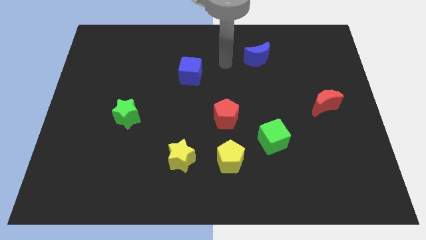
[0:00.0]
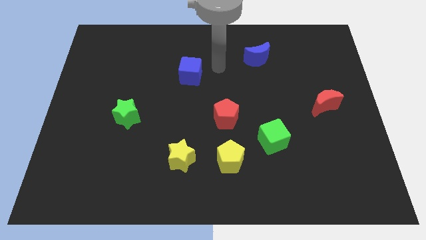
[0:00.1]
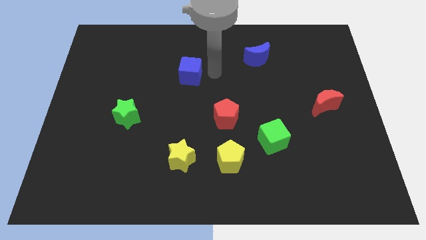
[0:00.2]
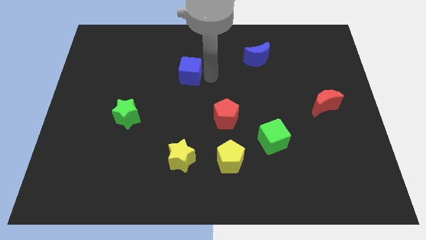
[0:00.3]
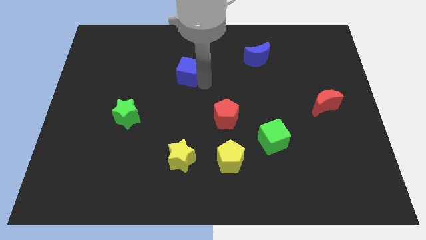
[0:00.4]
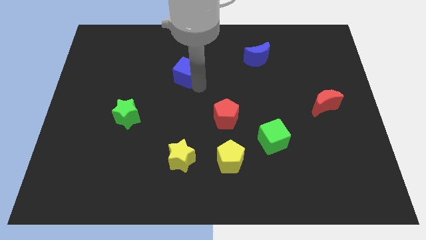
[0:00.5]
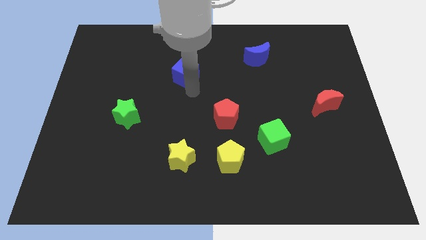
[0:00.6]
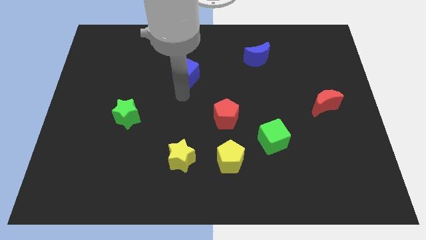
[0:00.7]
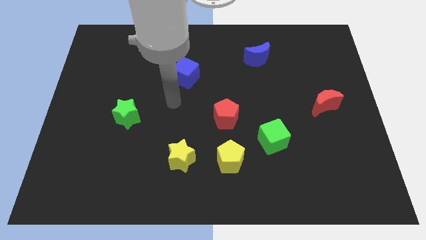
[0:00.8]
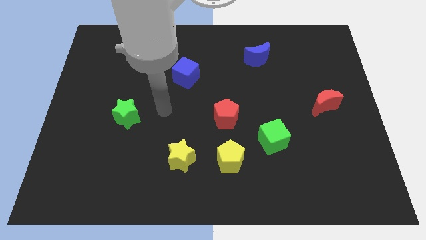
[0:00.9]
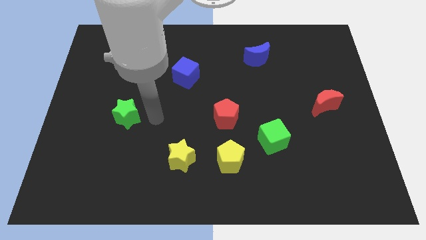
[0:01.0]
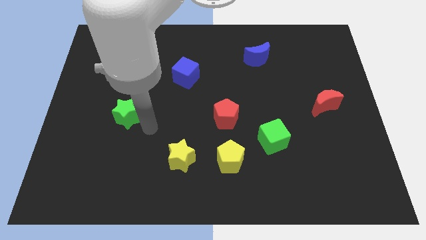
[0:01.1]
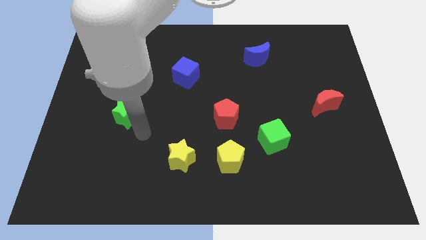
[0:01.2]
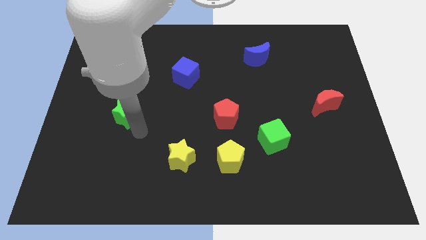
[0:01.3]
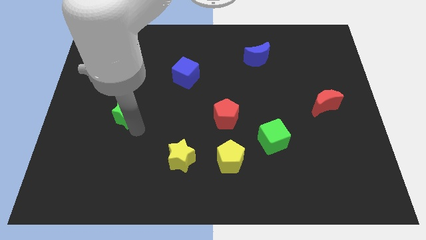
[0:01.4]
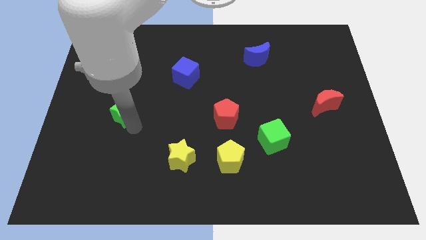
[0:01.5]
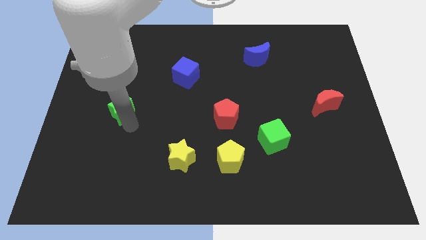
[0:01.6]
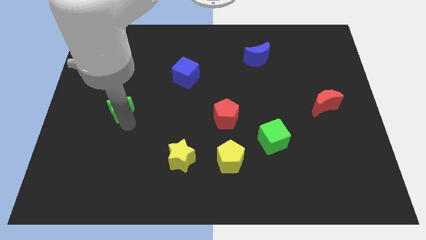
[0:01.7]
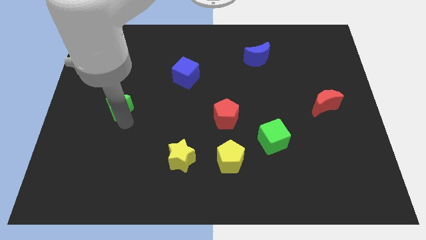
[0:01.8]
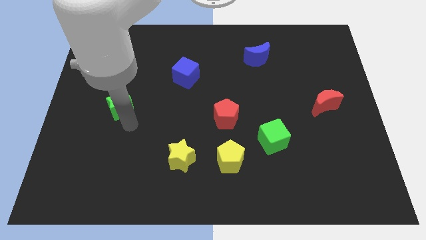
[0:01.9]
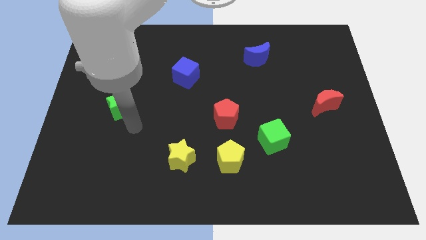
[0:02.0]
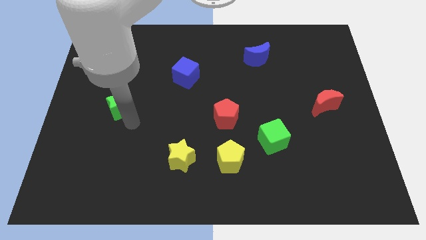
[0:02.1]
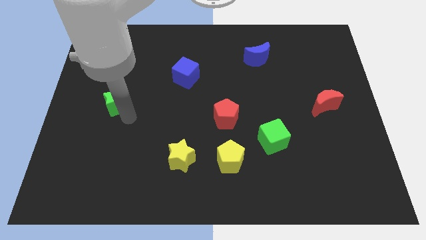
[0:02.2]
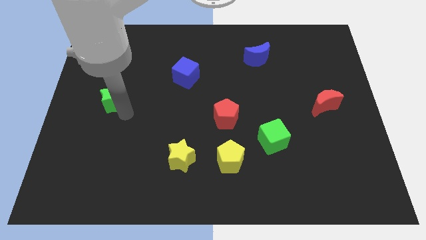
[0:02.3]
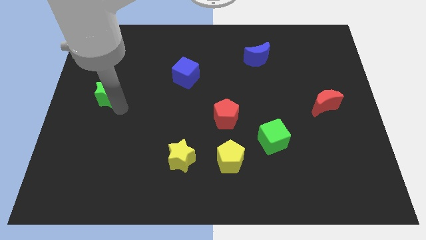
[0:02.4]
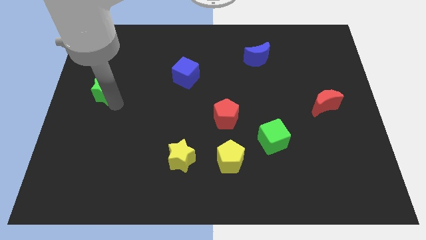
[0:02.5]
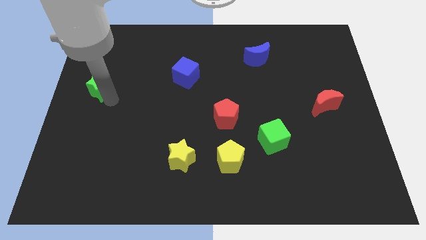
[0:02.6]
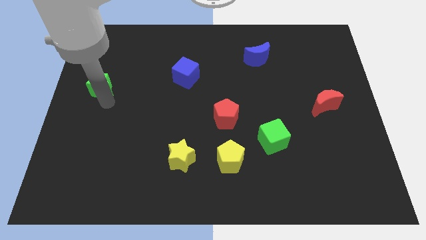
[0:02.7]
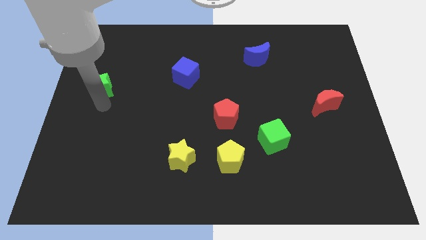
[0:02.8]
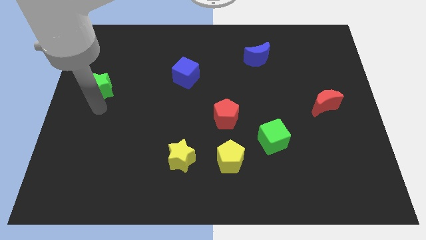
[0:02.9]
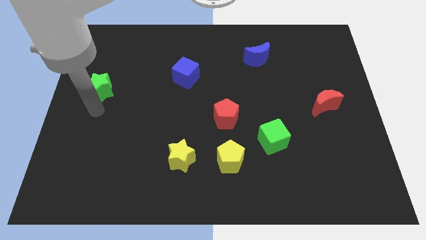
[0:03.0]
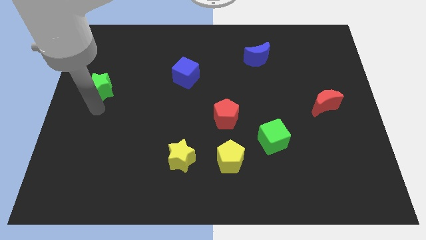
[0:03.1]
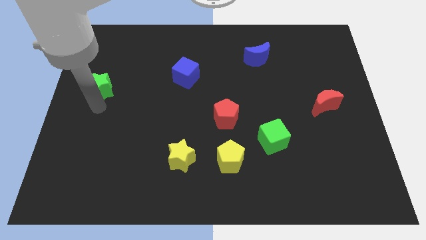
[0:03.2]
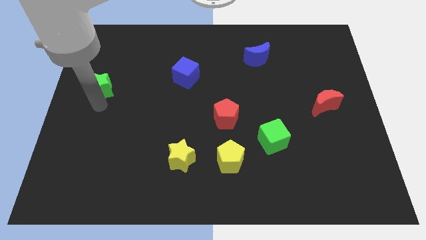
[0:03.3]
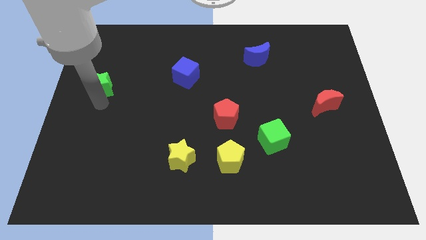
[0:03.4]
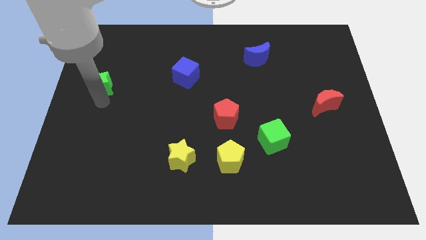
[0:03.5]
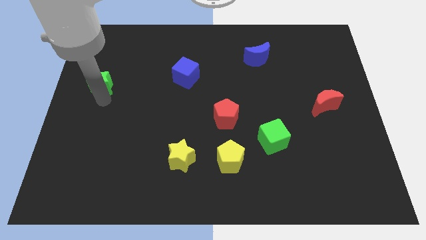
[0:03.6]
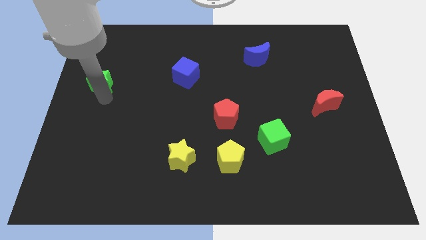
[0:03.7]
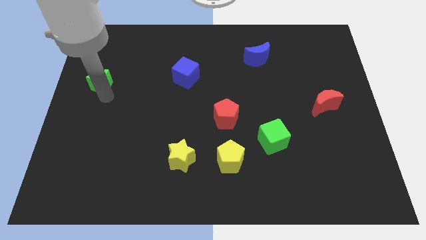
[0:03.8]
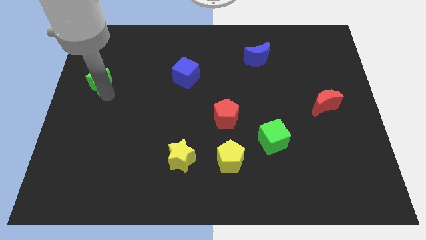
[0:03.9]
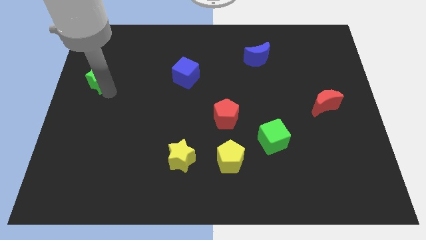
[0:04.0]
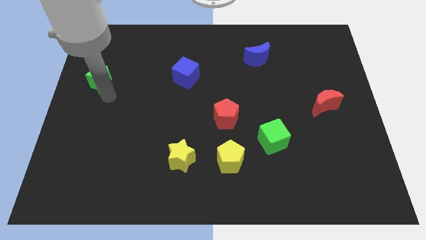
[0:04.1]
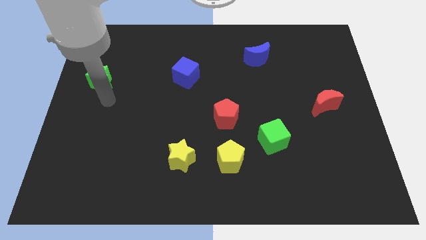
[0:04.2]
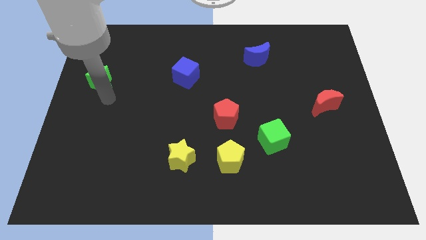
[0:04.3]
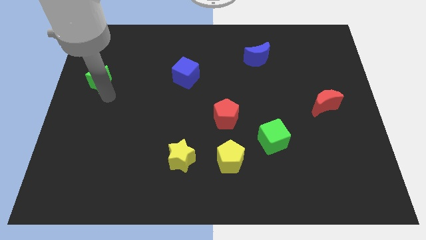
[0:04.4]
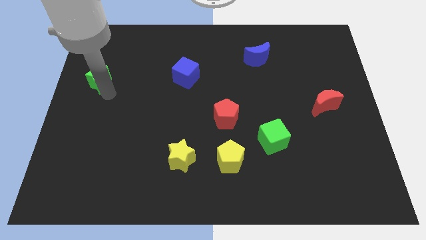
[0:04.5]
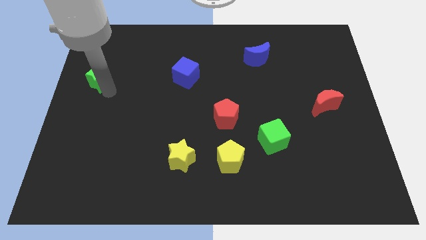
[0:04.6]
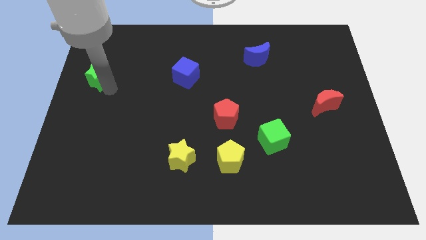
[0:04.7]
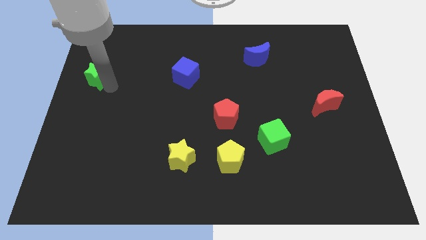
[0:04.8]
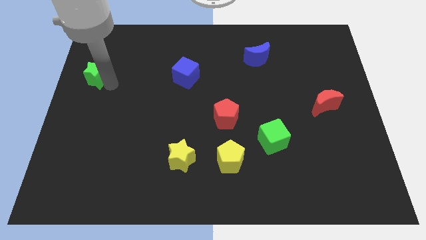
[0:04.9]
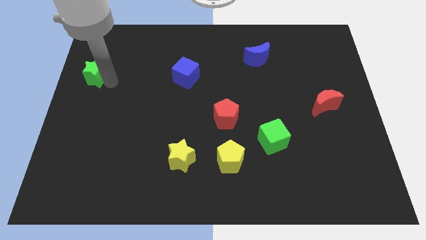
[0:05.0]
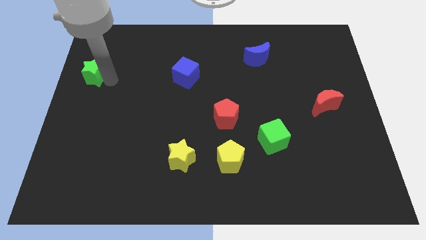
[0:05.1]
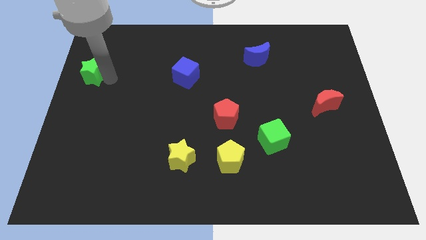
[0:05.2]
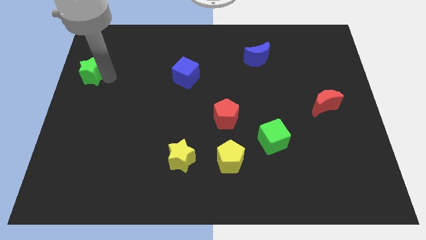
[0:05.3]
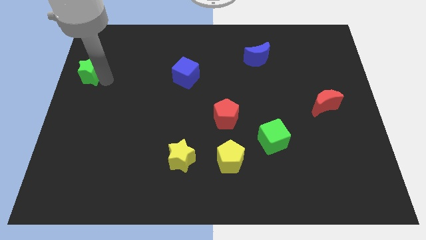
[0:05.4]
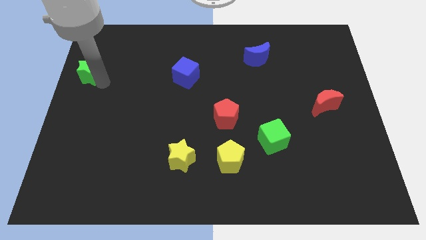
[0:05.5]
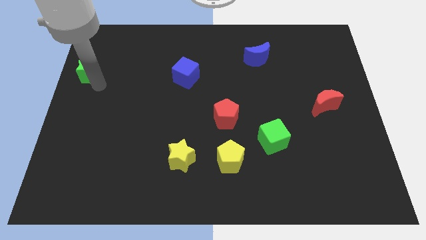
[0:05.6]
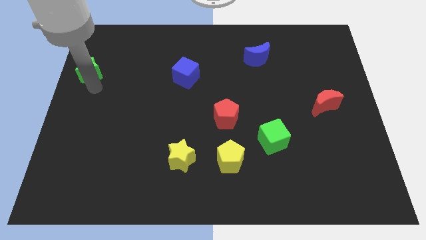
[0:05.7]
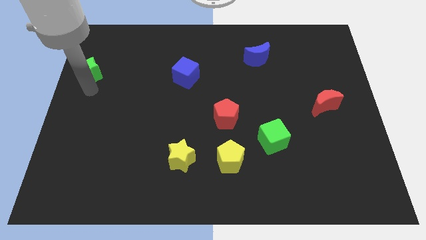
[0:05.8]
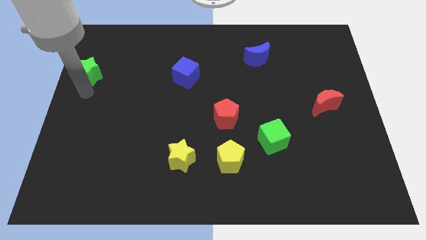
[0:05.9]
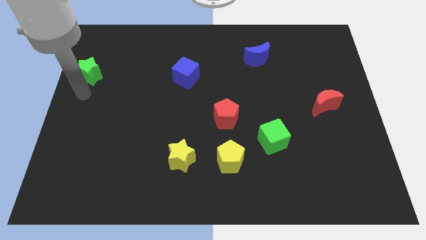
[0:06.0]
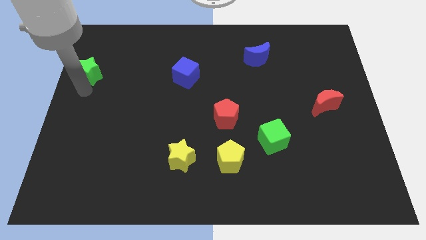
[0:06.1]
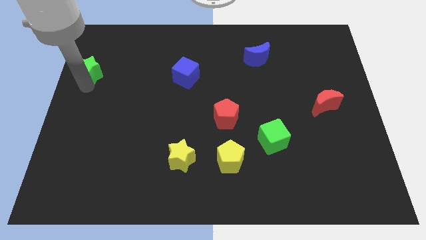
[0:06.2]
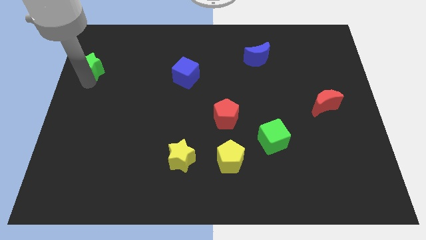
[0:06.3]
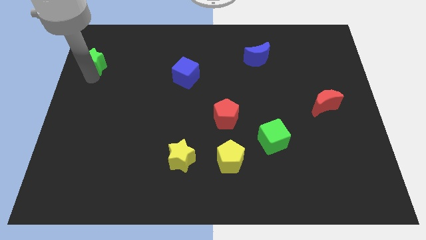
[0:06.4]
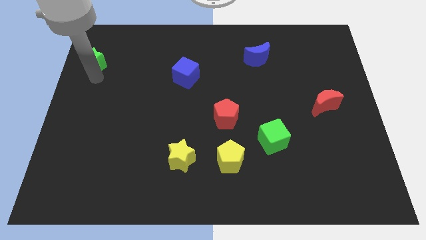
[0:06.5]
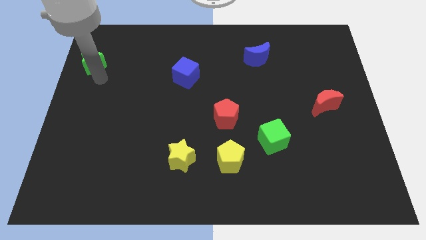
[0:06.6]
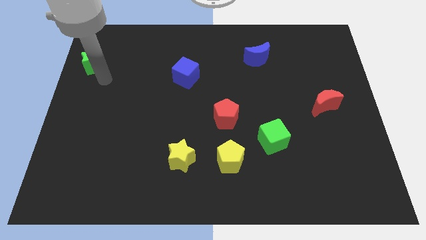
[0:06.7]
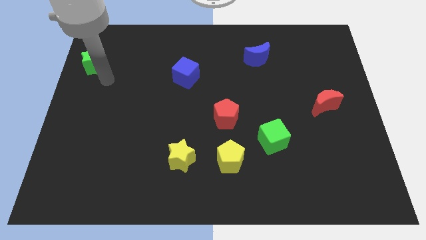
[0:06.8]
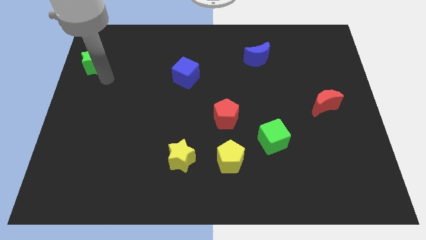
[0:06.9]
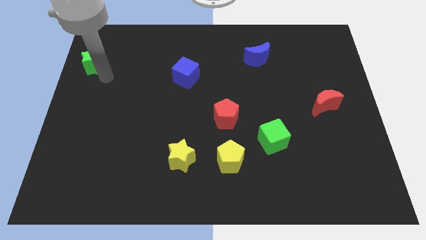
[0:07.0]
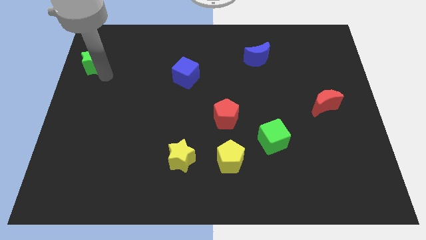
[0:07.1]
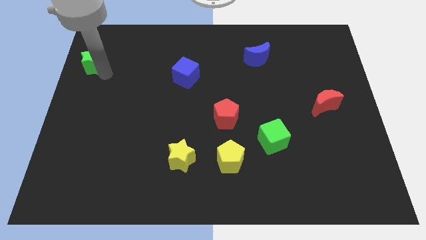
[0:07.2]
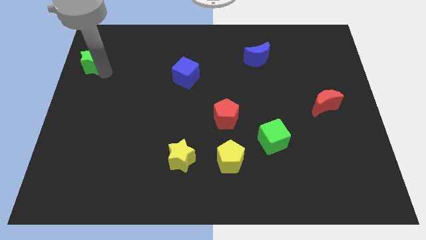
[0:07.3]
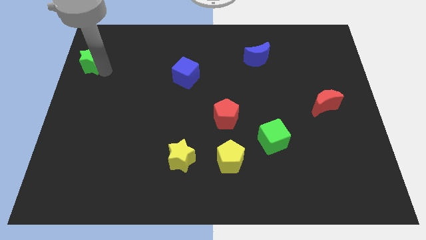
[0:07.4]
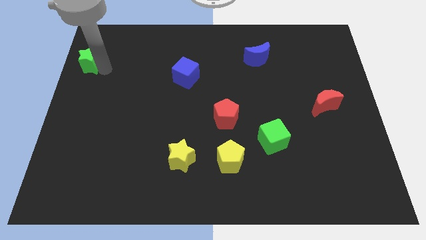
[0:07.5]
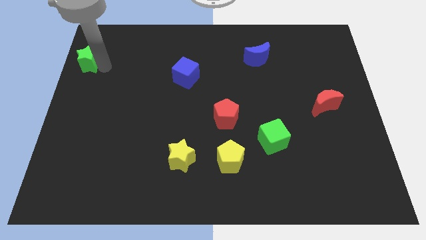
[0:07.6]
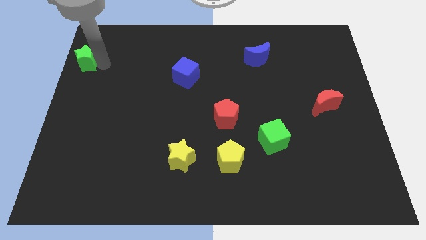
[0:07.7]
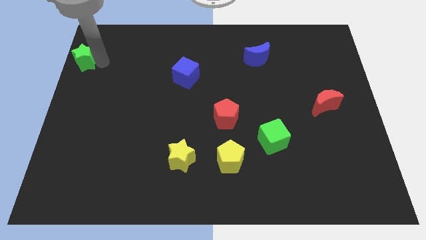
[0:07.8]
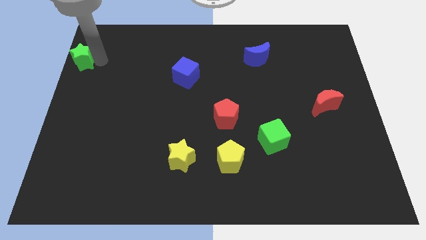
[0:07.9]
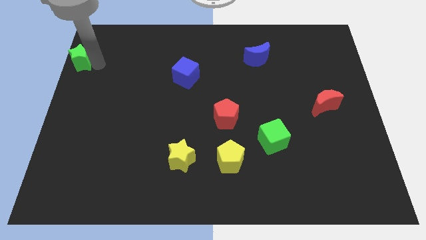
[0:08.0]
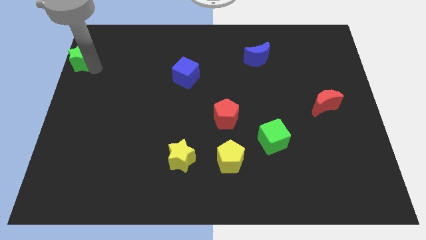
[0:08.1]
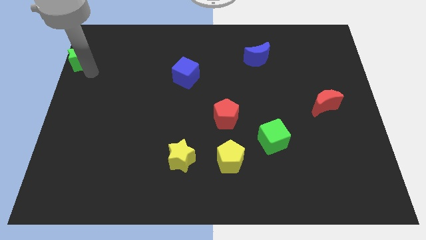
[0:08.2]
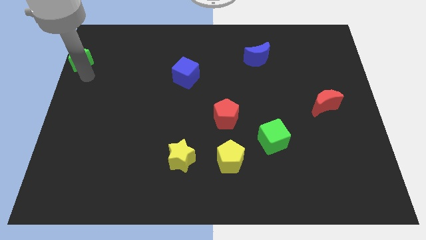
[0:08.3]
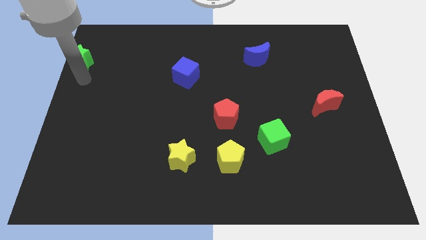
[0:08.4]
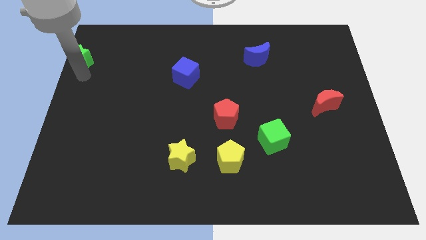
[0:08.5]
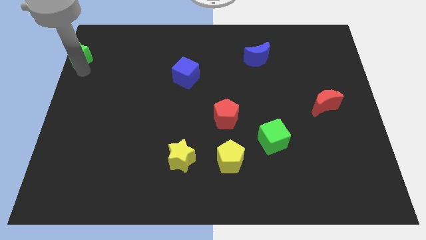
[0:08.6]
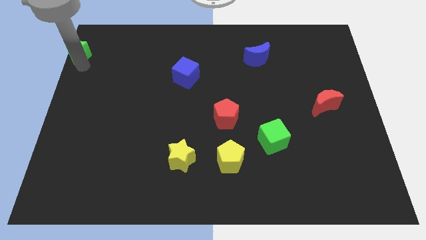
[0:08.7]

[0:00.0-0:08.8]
slide the green star to the top left
